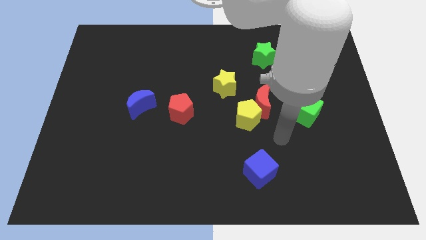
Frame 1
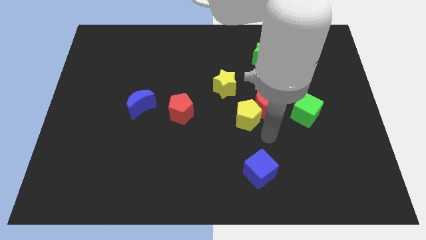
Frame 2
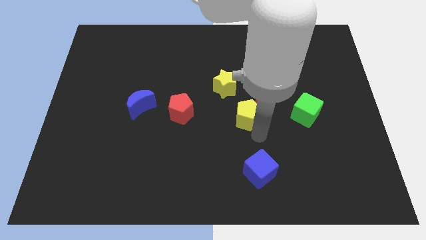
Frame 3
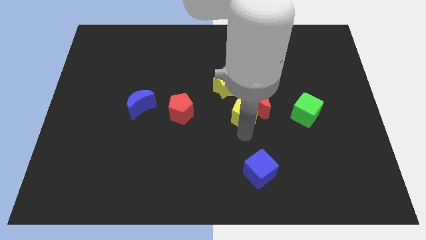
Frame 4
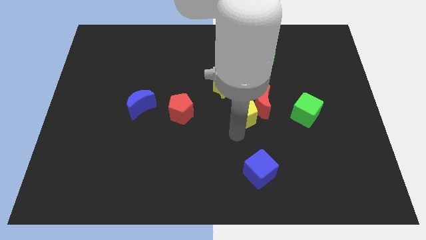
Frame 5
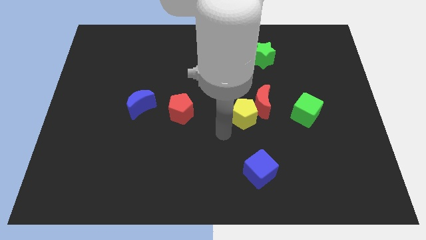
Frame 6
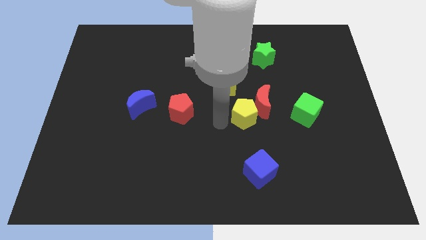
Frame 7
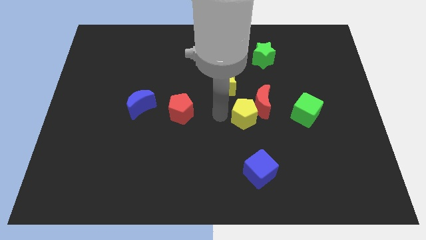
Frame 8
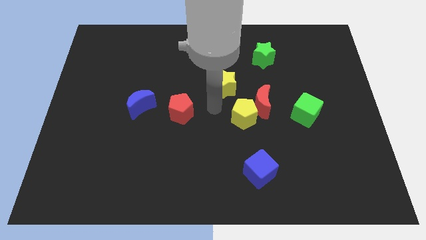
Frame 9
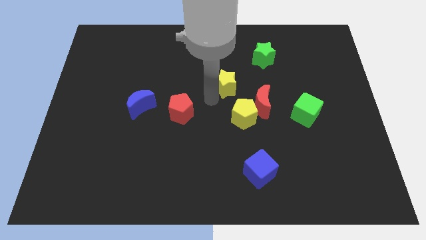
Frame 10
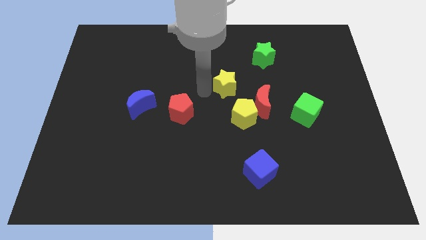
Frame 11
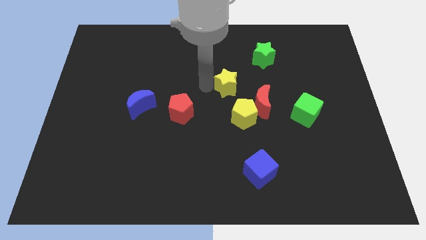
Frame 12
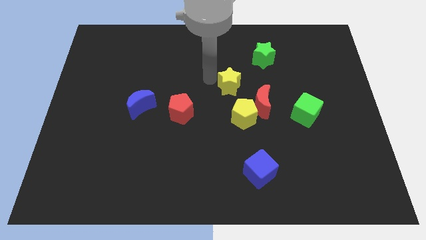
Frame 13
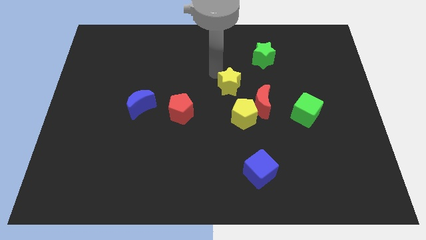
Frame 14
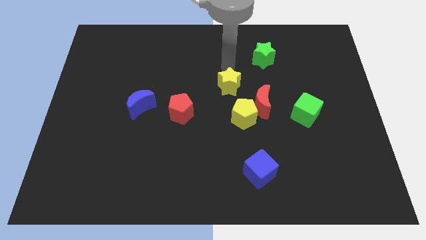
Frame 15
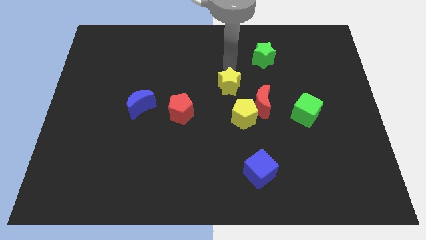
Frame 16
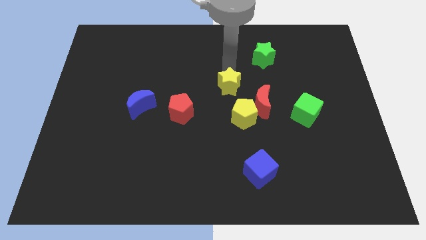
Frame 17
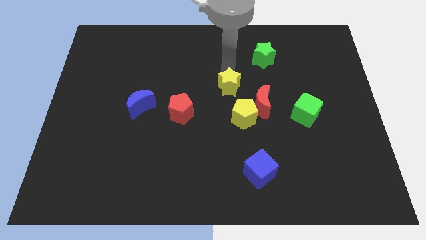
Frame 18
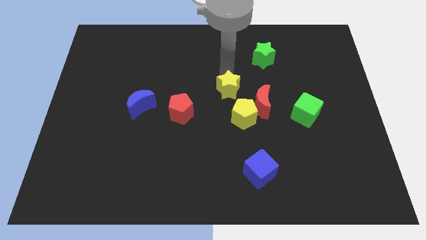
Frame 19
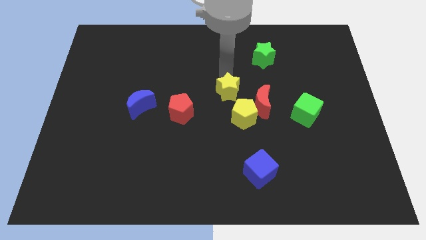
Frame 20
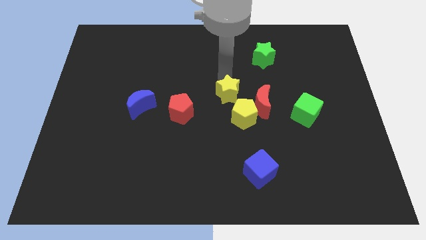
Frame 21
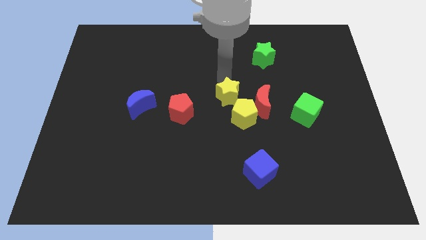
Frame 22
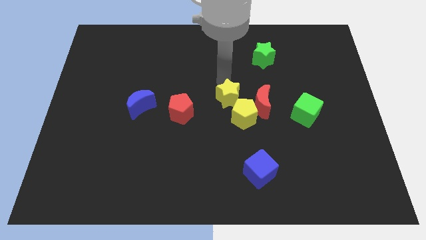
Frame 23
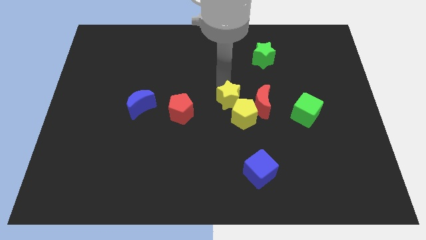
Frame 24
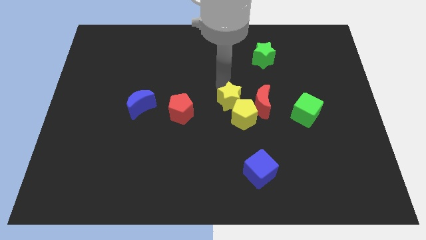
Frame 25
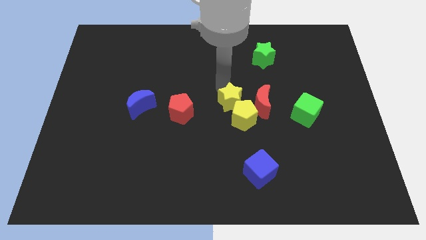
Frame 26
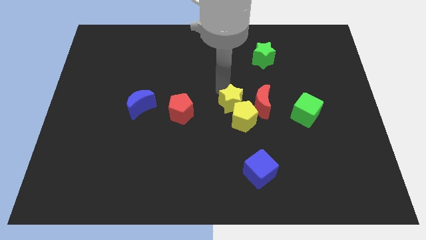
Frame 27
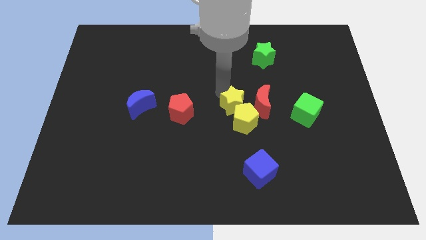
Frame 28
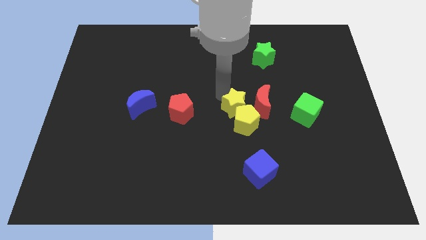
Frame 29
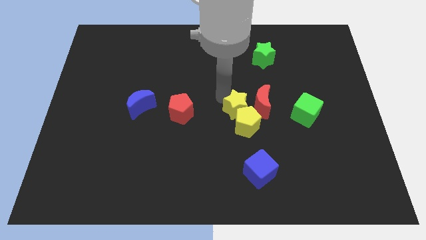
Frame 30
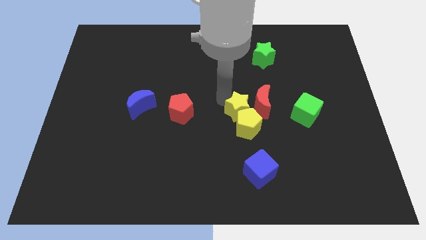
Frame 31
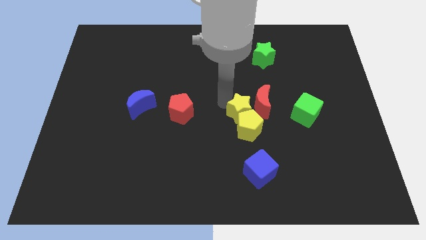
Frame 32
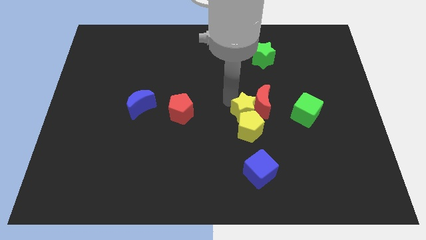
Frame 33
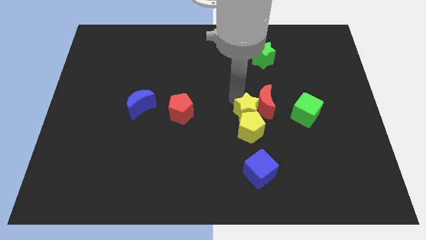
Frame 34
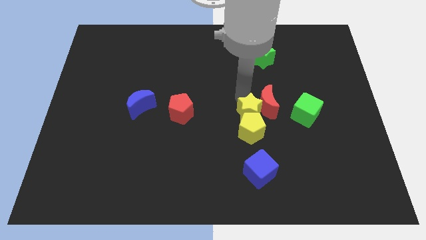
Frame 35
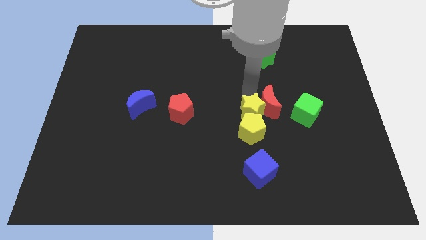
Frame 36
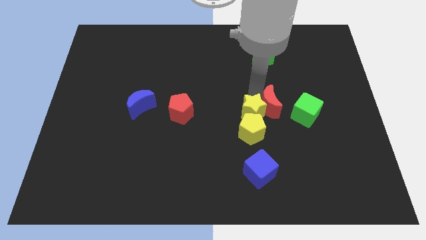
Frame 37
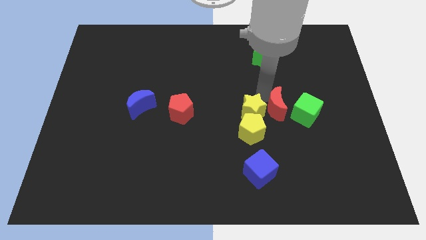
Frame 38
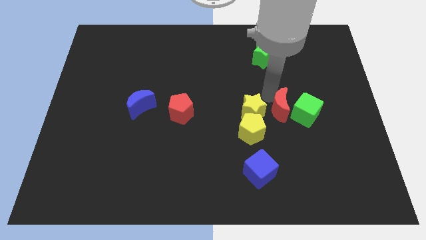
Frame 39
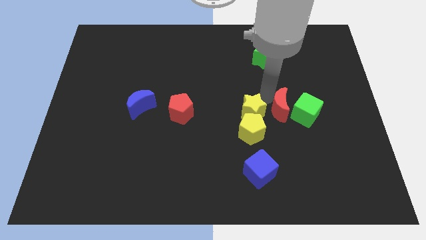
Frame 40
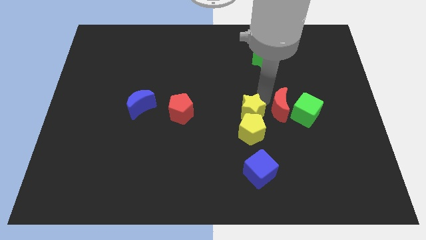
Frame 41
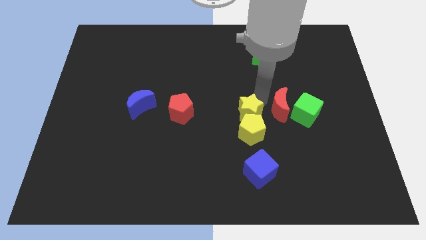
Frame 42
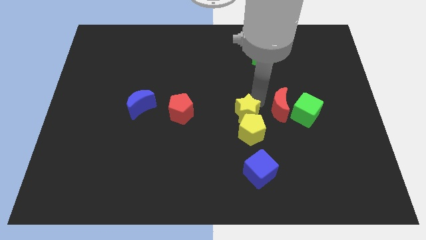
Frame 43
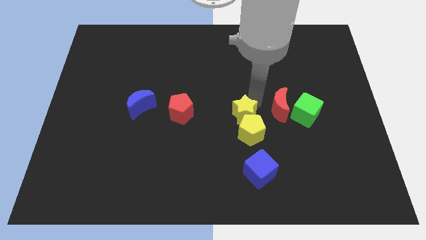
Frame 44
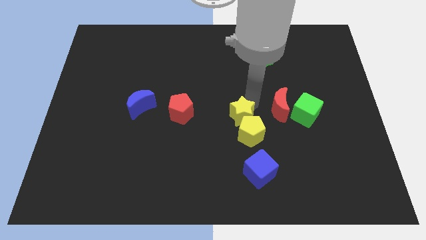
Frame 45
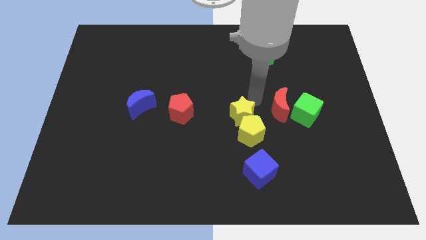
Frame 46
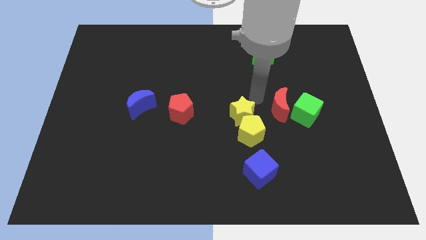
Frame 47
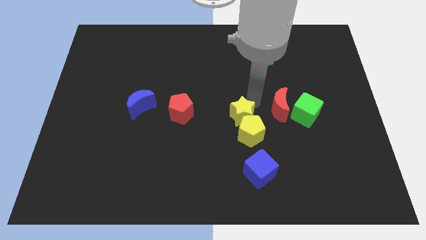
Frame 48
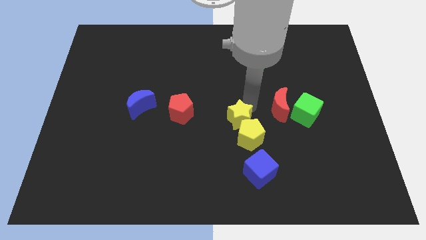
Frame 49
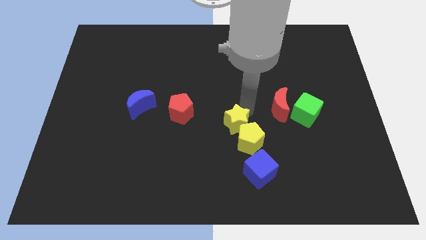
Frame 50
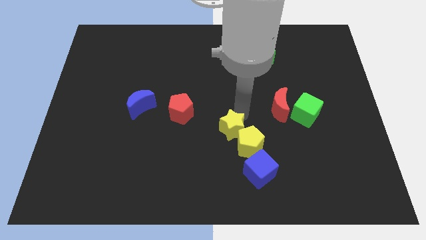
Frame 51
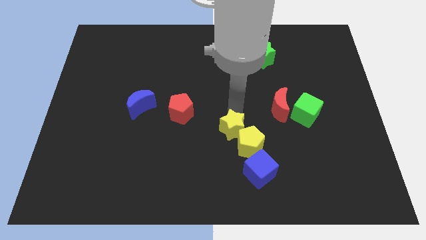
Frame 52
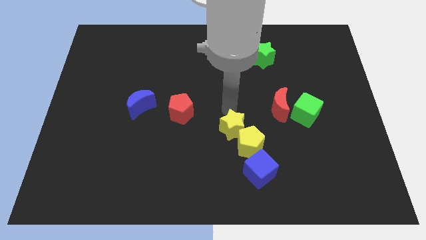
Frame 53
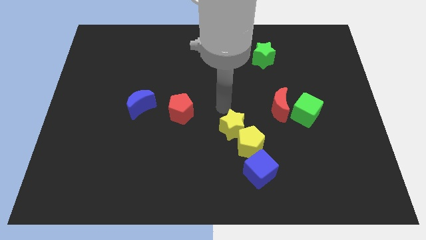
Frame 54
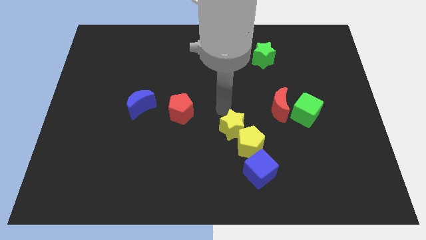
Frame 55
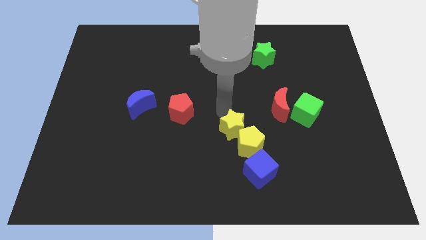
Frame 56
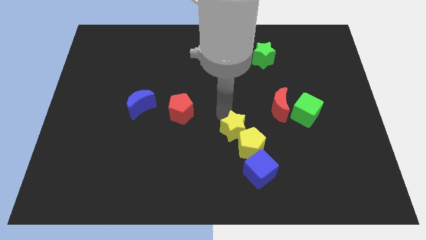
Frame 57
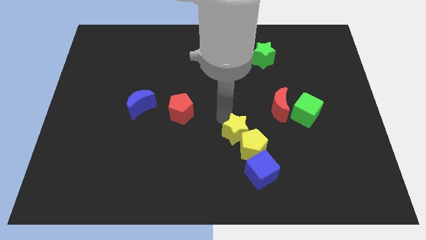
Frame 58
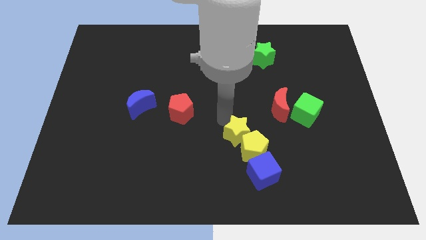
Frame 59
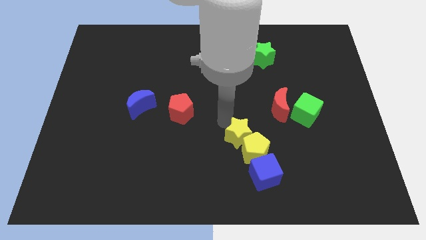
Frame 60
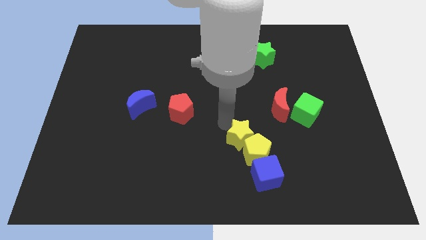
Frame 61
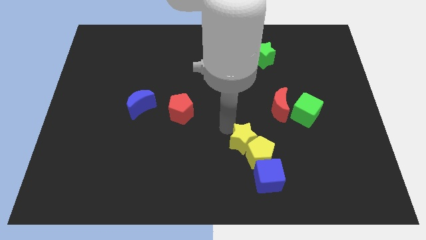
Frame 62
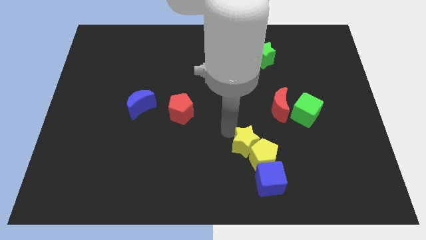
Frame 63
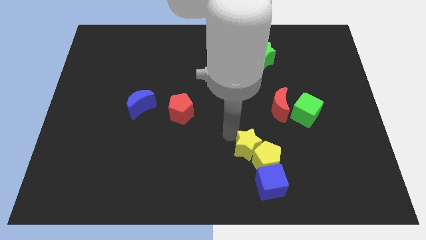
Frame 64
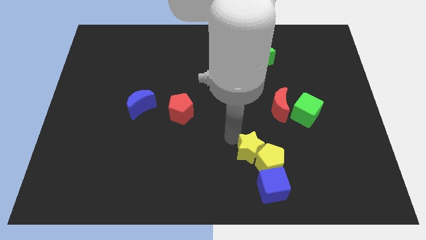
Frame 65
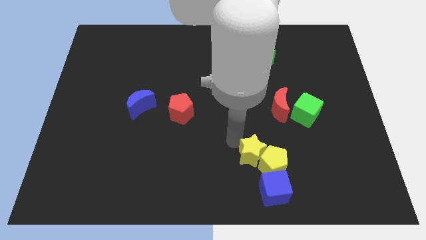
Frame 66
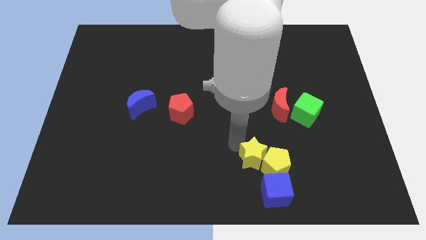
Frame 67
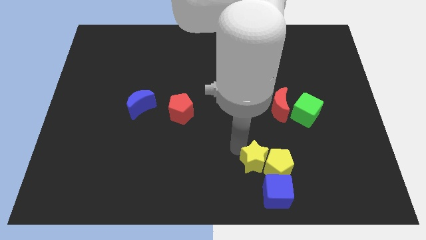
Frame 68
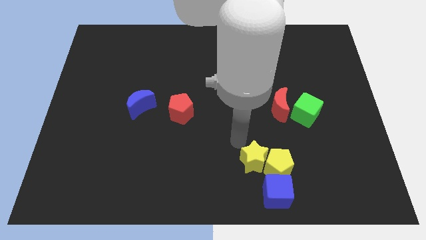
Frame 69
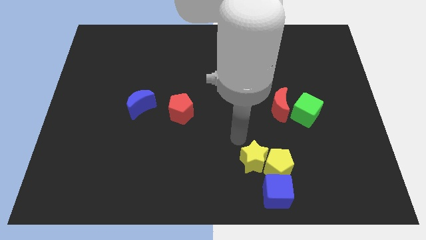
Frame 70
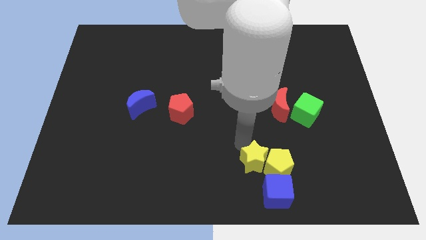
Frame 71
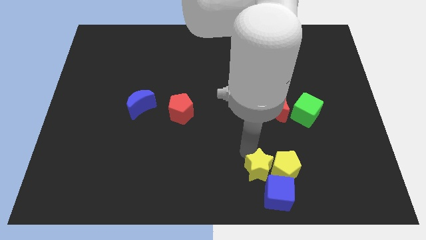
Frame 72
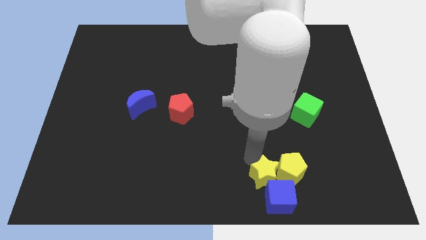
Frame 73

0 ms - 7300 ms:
slide the yellow star towards the blue cube
